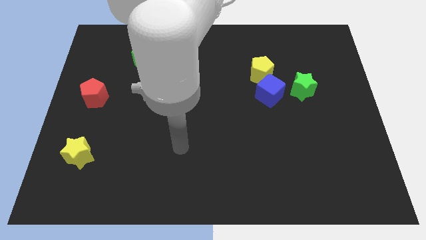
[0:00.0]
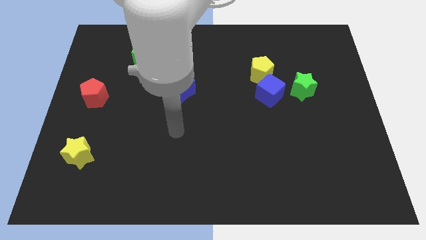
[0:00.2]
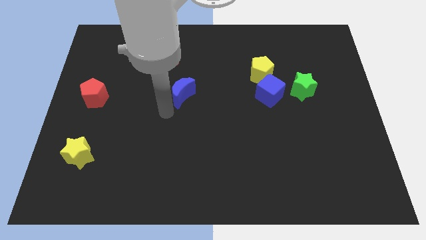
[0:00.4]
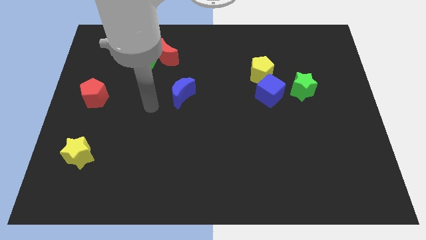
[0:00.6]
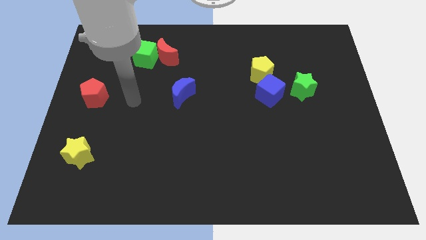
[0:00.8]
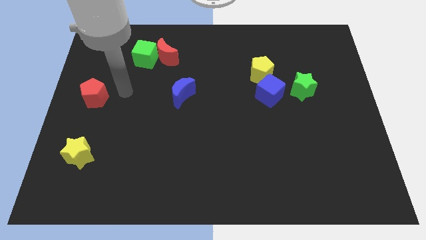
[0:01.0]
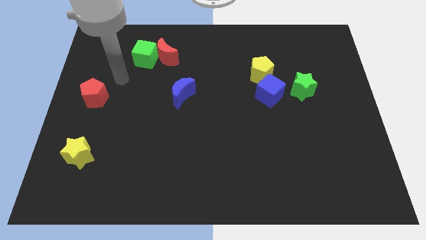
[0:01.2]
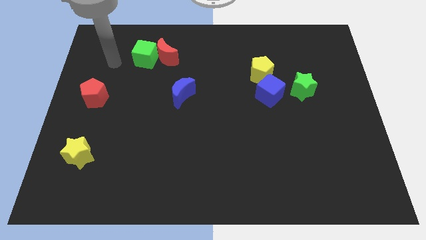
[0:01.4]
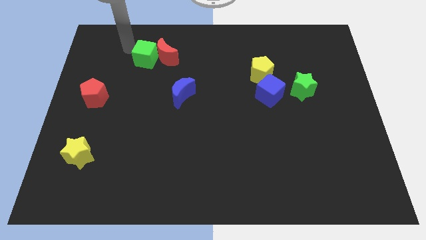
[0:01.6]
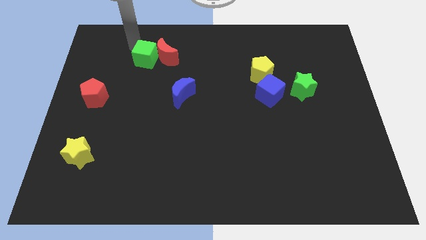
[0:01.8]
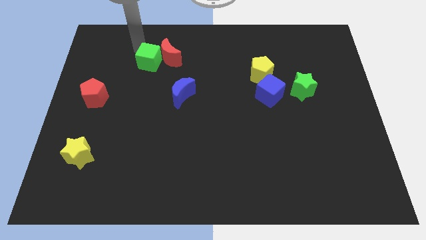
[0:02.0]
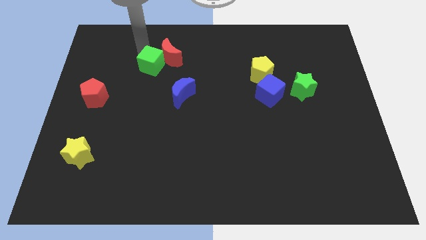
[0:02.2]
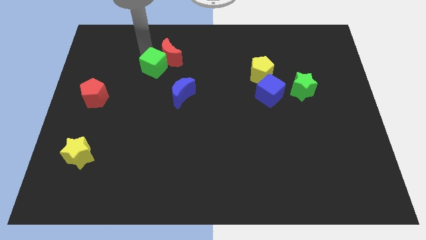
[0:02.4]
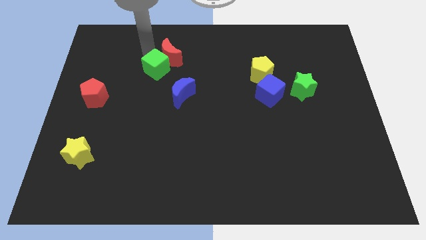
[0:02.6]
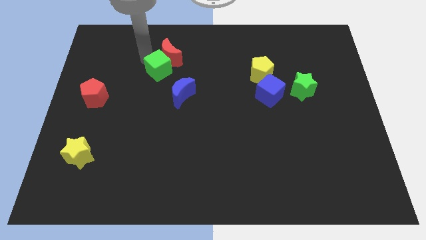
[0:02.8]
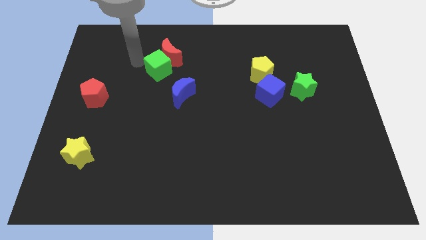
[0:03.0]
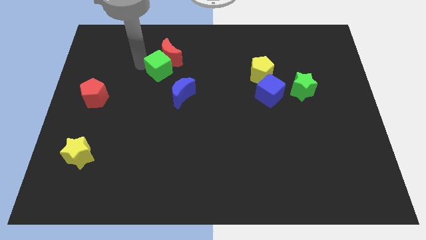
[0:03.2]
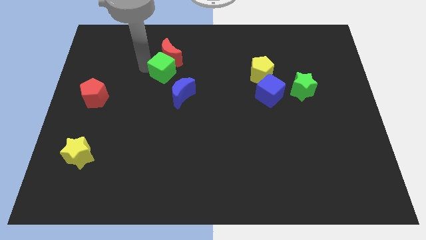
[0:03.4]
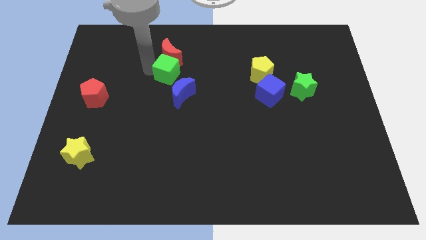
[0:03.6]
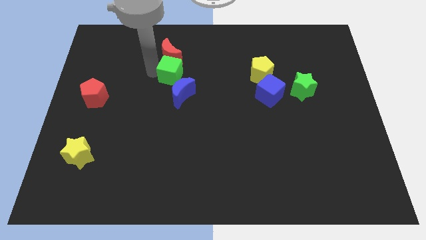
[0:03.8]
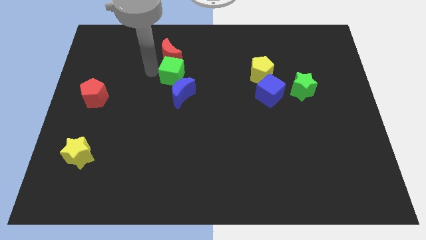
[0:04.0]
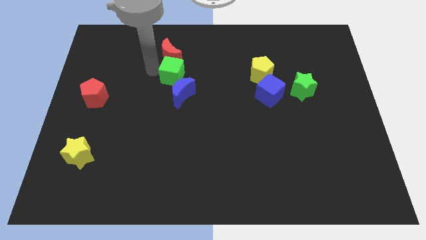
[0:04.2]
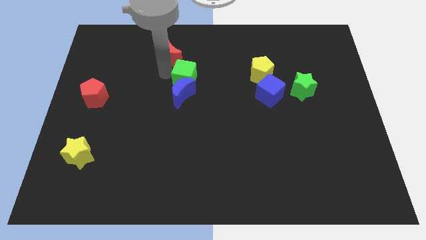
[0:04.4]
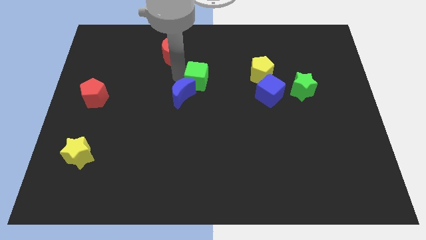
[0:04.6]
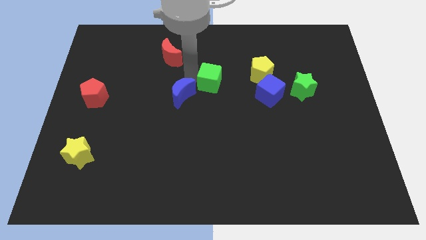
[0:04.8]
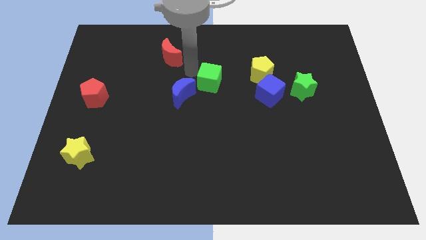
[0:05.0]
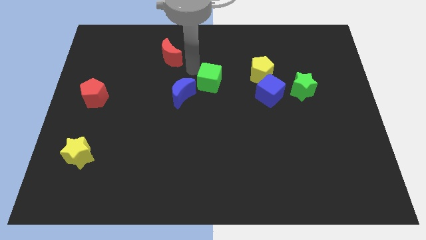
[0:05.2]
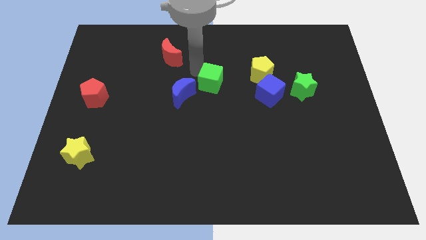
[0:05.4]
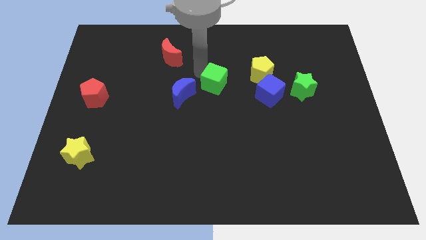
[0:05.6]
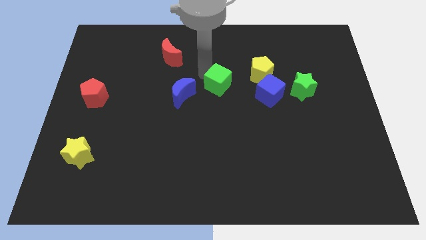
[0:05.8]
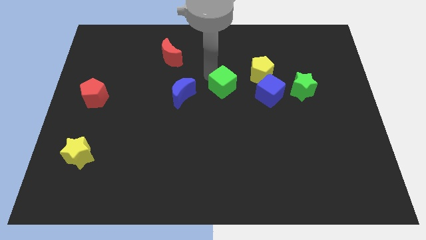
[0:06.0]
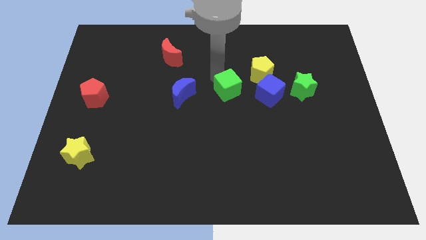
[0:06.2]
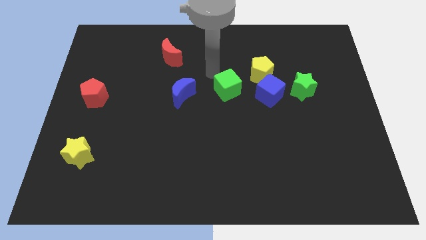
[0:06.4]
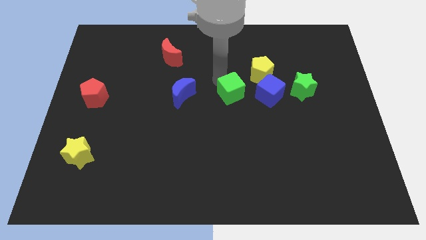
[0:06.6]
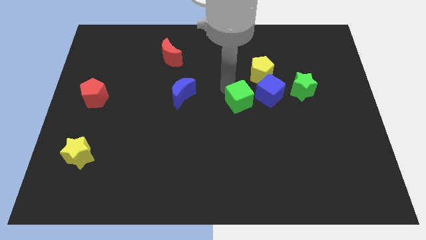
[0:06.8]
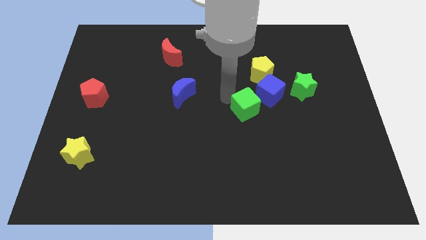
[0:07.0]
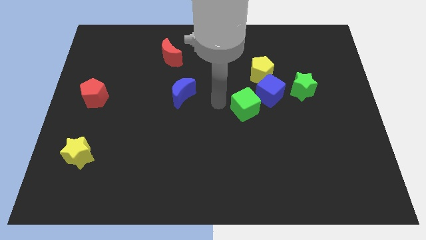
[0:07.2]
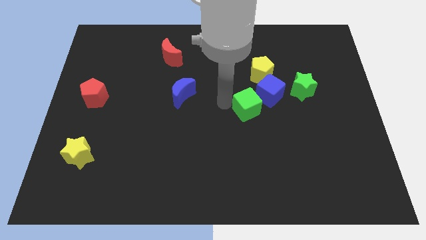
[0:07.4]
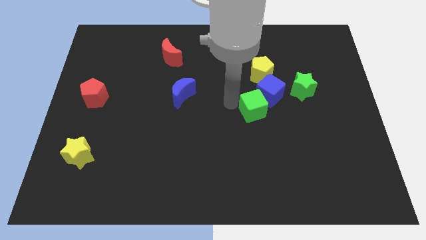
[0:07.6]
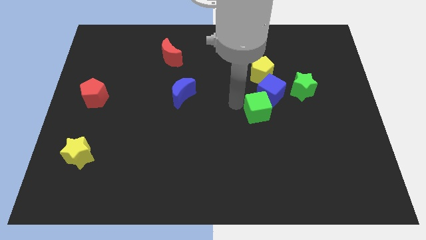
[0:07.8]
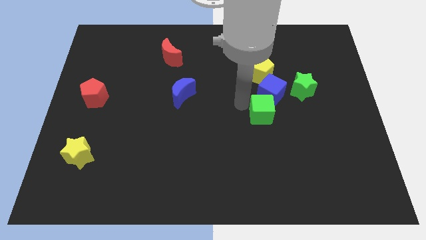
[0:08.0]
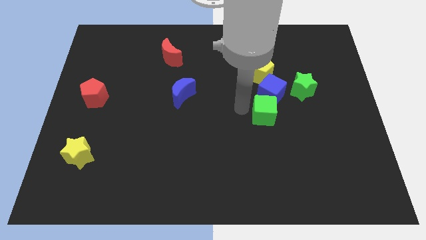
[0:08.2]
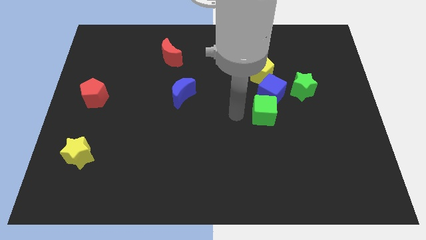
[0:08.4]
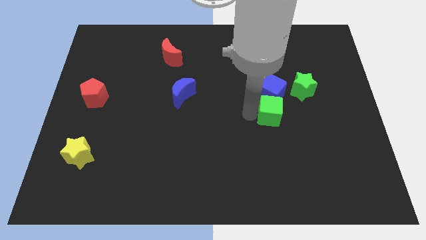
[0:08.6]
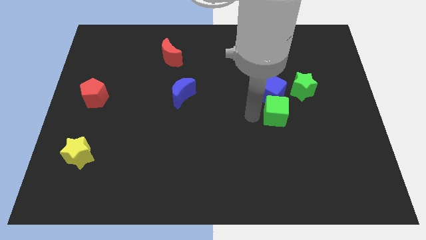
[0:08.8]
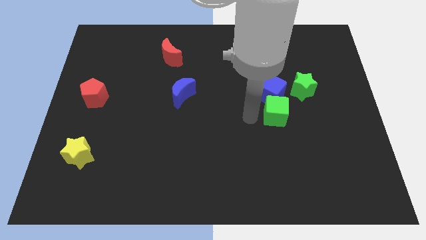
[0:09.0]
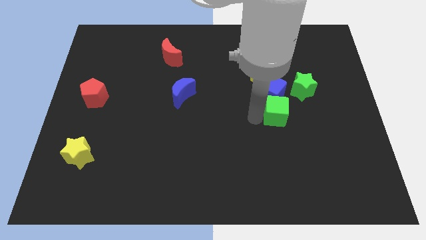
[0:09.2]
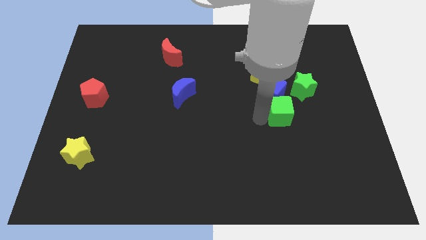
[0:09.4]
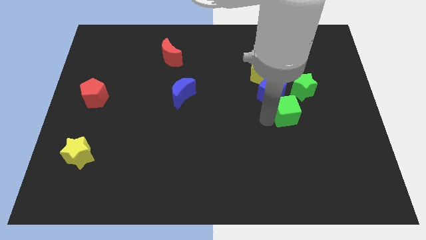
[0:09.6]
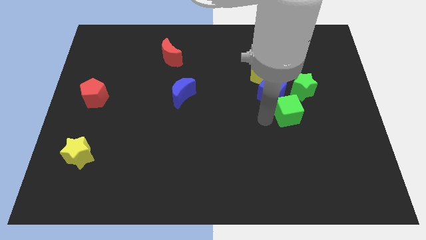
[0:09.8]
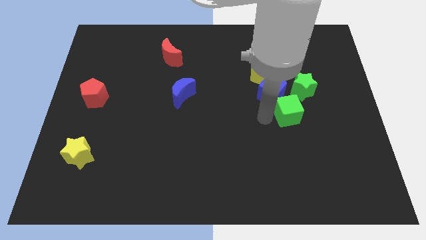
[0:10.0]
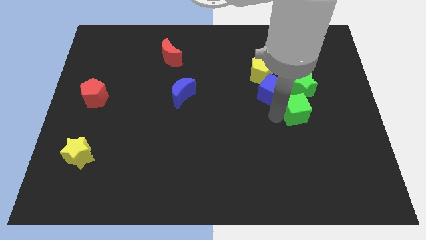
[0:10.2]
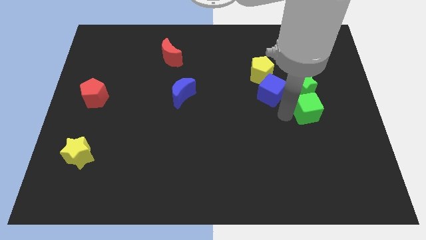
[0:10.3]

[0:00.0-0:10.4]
slide the green cube to the bottom right of the green star

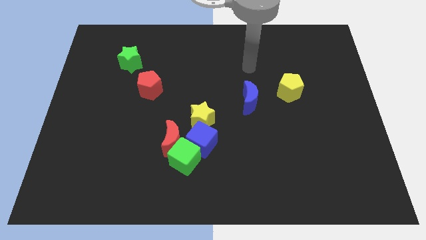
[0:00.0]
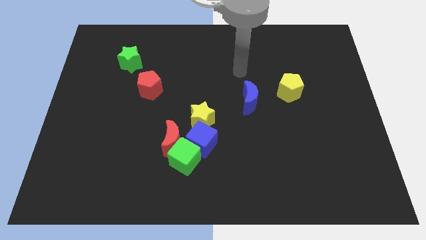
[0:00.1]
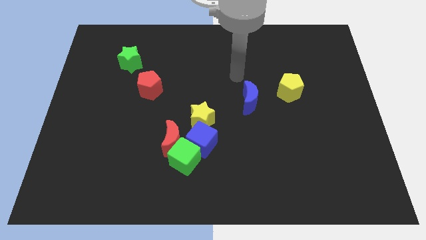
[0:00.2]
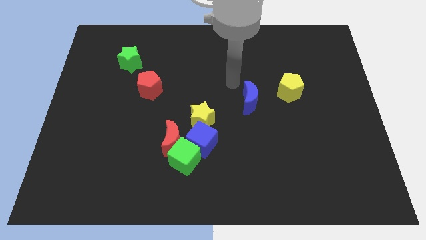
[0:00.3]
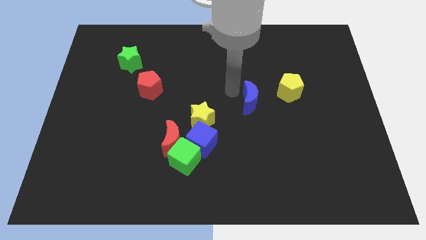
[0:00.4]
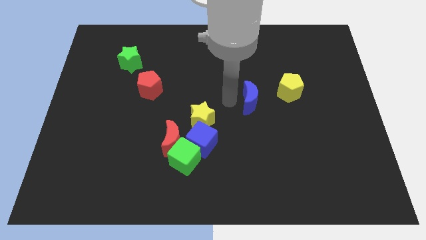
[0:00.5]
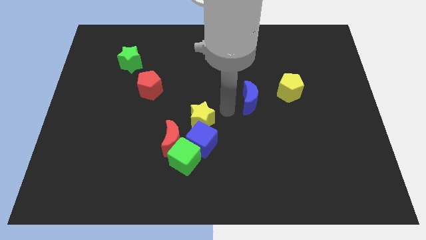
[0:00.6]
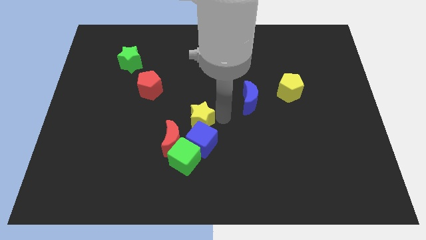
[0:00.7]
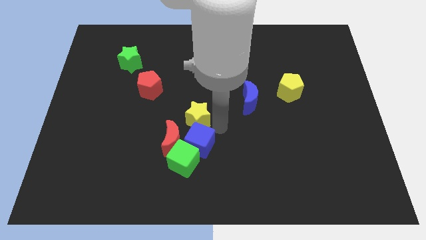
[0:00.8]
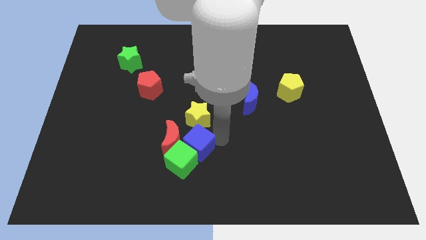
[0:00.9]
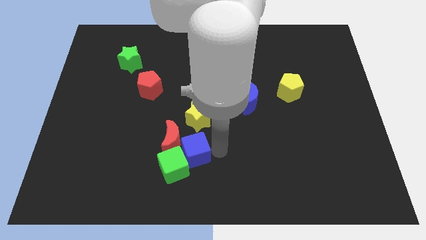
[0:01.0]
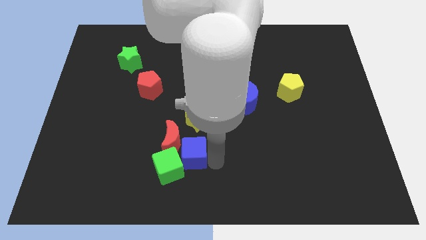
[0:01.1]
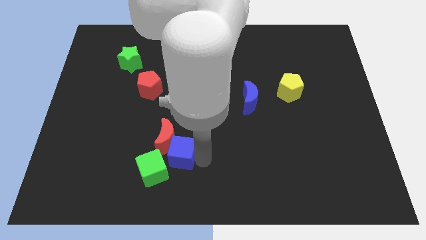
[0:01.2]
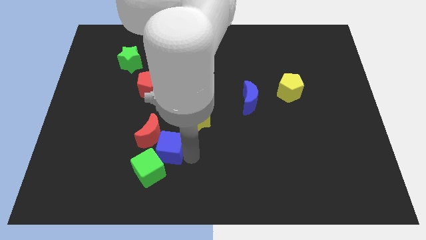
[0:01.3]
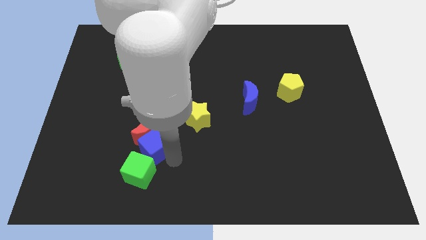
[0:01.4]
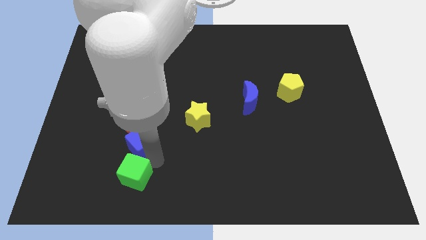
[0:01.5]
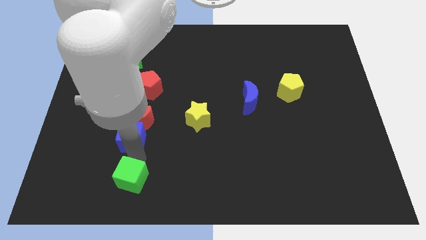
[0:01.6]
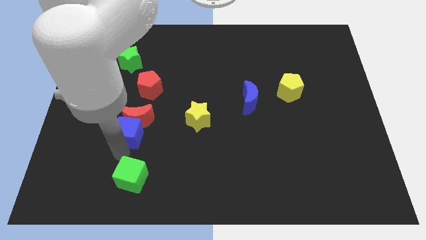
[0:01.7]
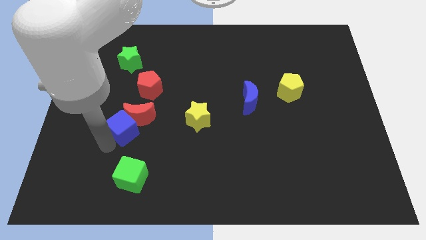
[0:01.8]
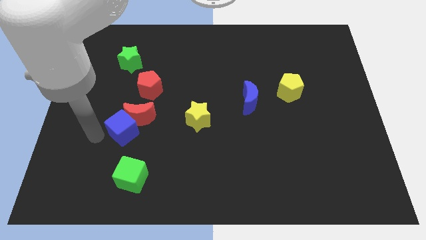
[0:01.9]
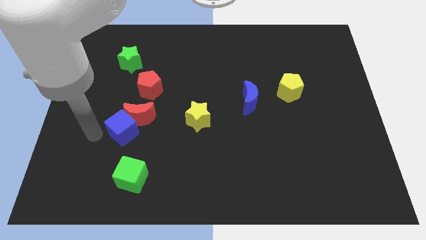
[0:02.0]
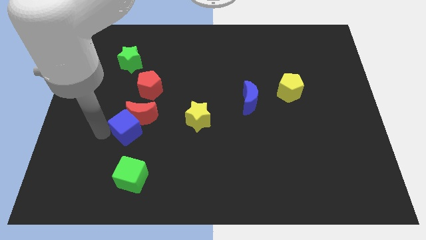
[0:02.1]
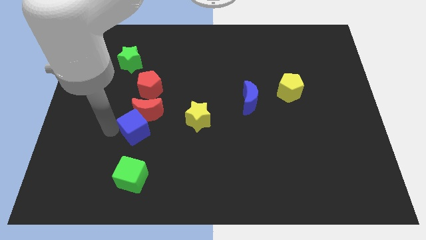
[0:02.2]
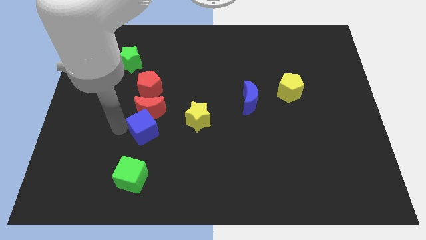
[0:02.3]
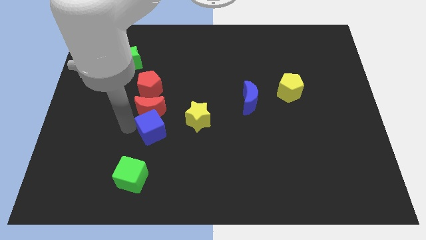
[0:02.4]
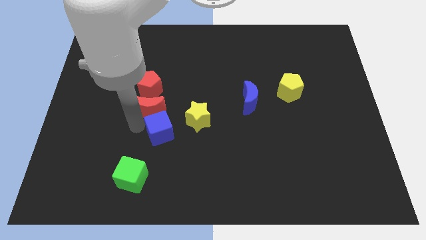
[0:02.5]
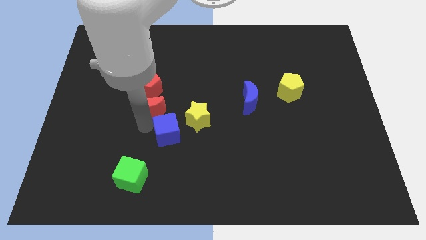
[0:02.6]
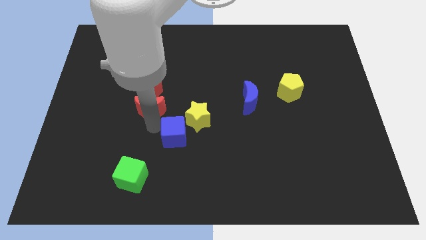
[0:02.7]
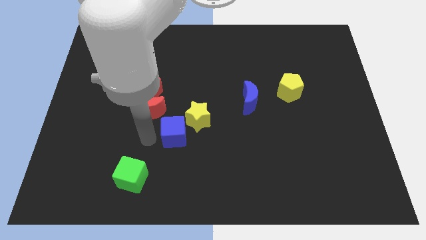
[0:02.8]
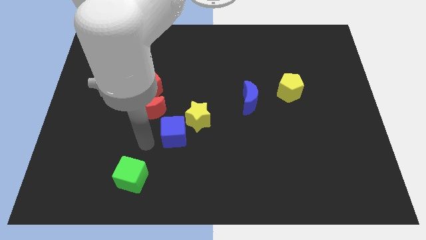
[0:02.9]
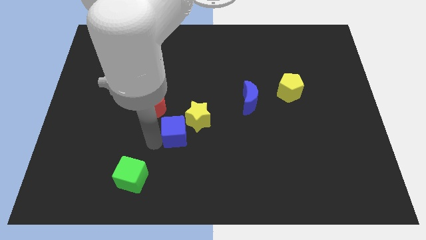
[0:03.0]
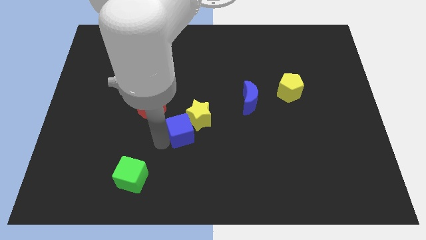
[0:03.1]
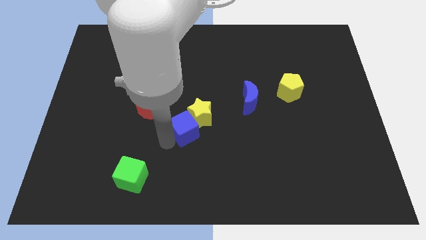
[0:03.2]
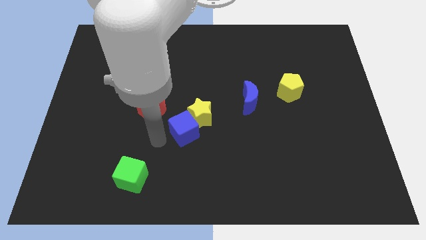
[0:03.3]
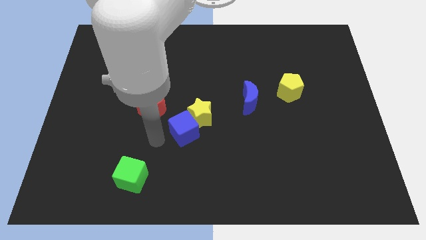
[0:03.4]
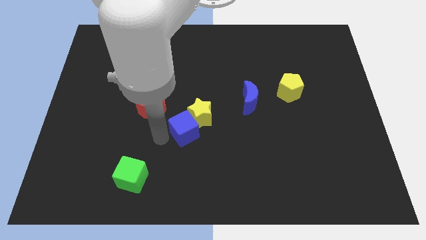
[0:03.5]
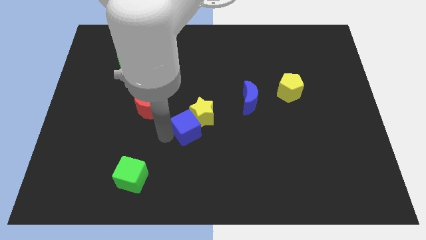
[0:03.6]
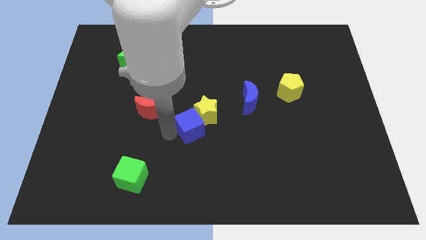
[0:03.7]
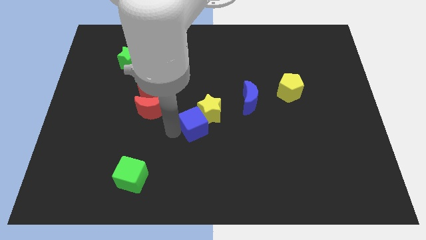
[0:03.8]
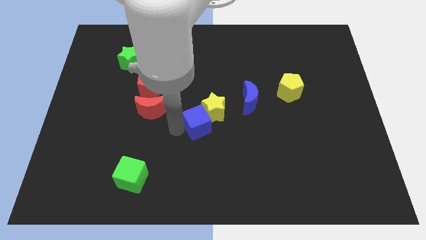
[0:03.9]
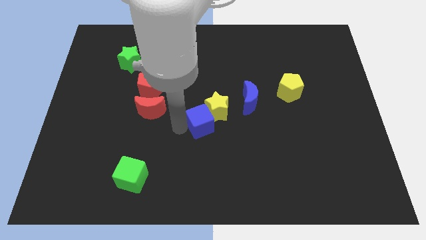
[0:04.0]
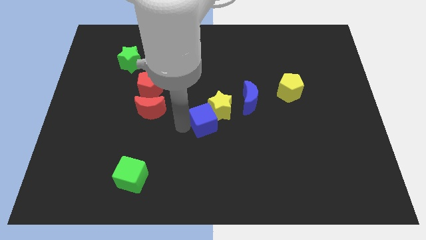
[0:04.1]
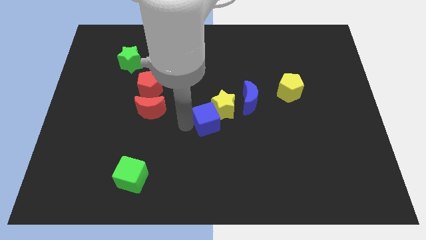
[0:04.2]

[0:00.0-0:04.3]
put the blue cube to the bottom left of the blue moon
